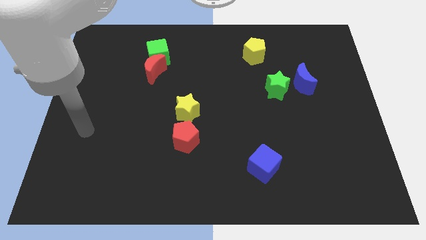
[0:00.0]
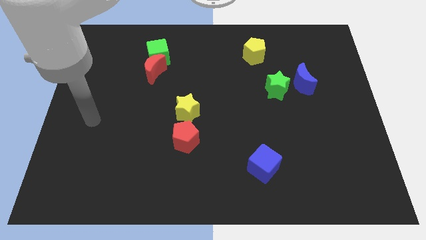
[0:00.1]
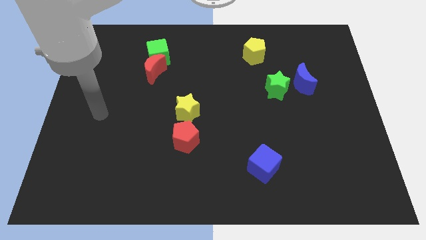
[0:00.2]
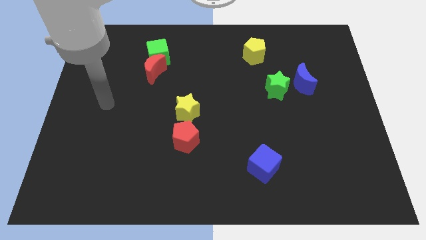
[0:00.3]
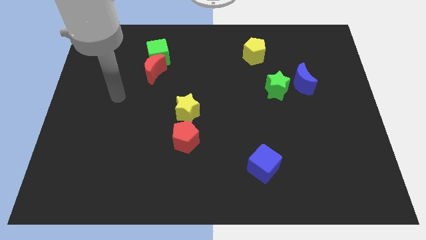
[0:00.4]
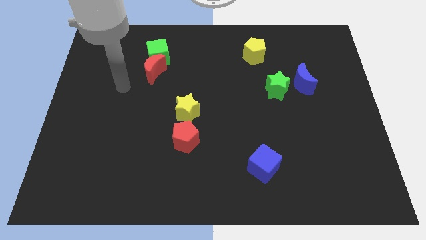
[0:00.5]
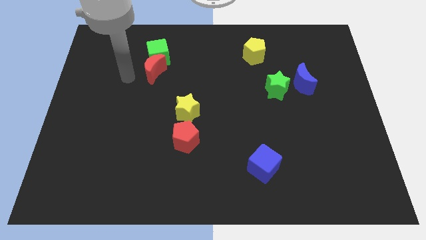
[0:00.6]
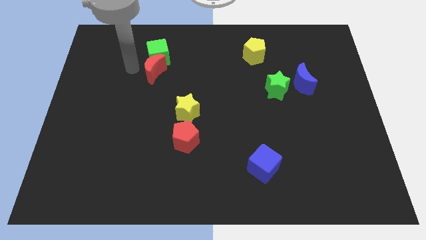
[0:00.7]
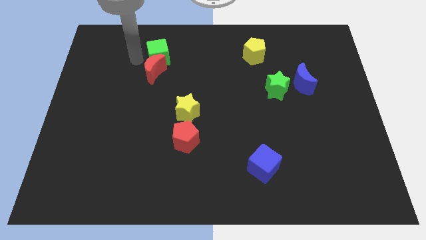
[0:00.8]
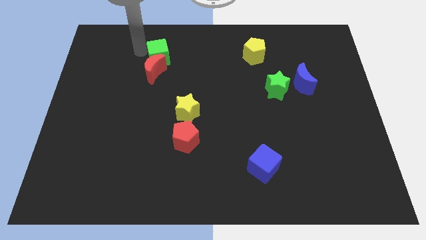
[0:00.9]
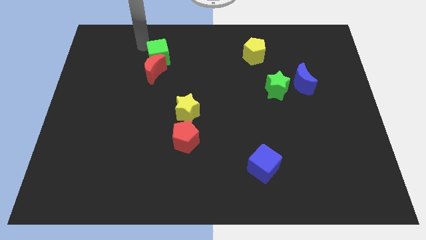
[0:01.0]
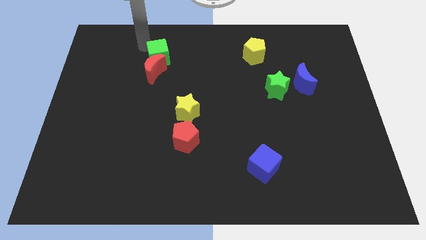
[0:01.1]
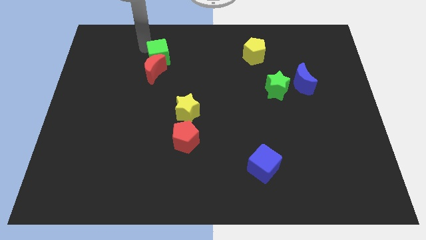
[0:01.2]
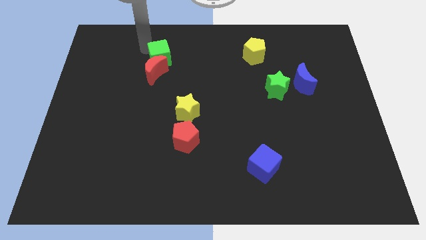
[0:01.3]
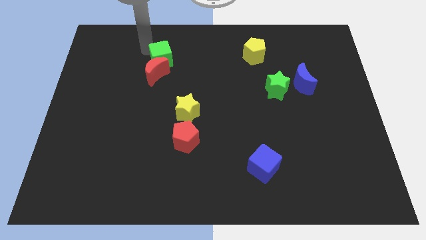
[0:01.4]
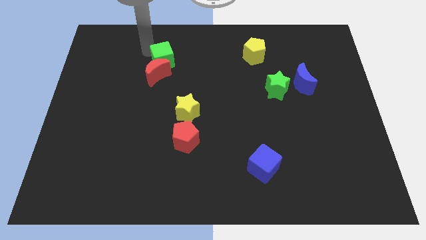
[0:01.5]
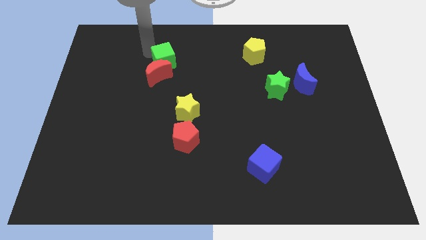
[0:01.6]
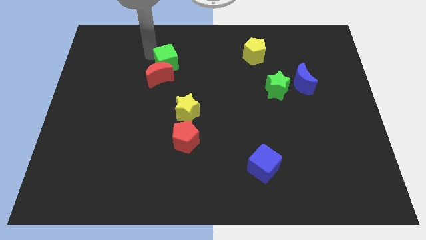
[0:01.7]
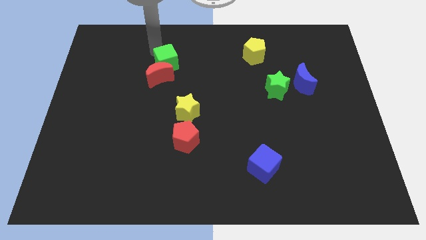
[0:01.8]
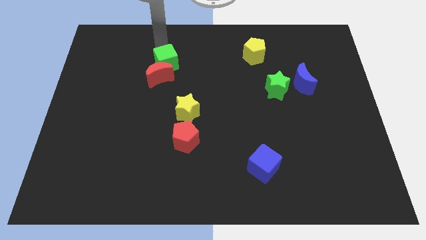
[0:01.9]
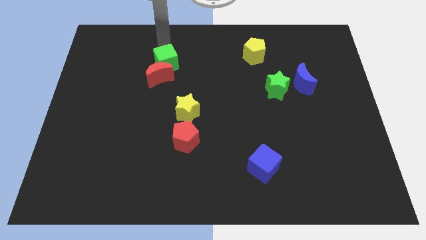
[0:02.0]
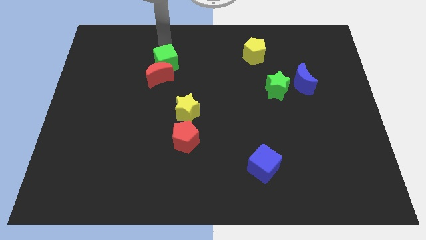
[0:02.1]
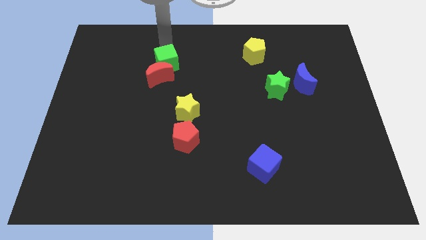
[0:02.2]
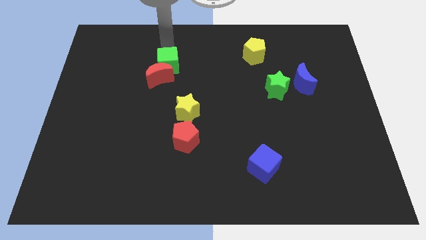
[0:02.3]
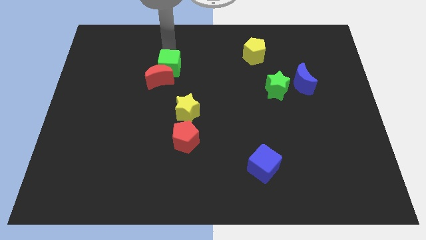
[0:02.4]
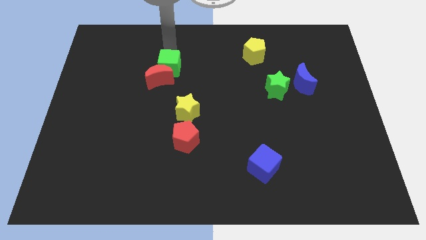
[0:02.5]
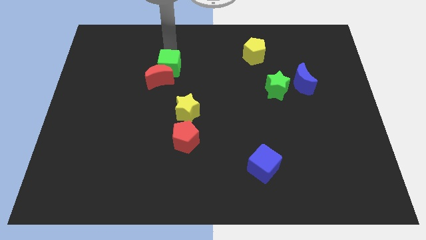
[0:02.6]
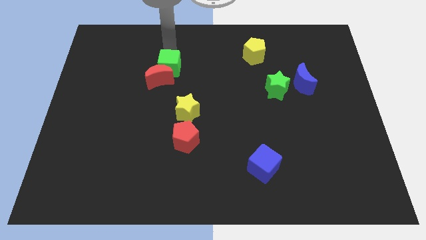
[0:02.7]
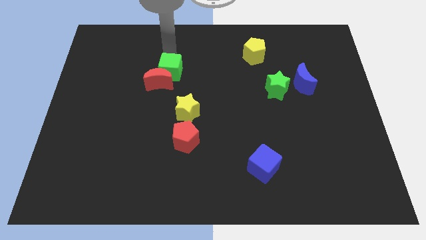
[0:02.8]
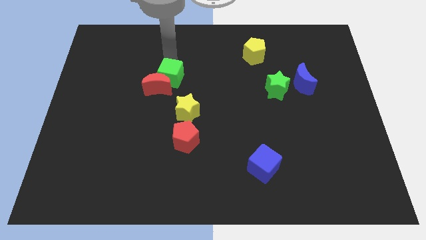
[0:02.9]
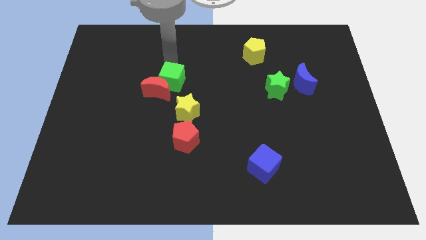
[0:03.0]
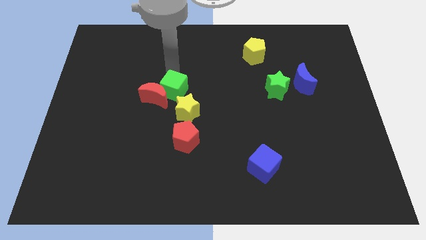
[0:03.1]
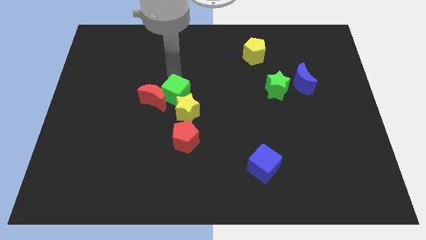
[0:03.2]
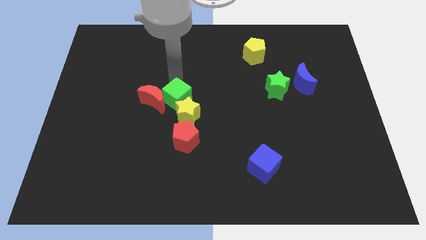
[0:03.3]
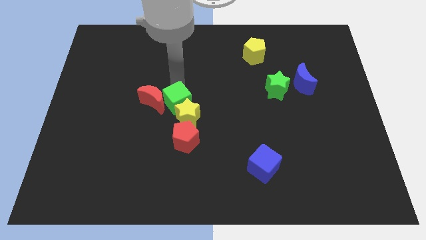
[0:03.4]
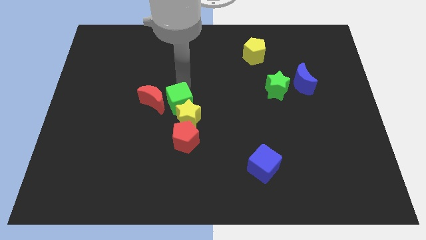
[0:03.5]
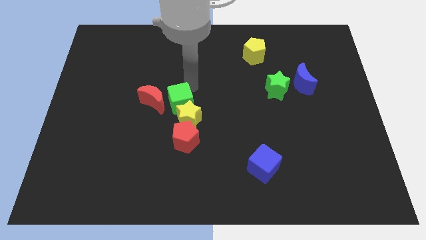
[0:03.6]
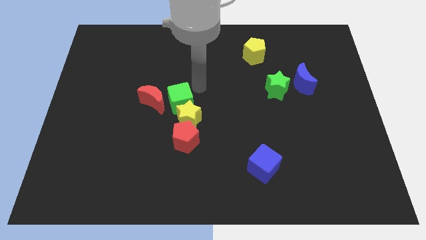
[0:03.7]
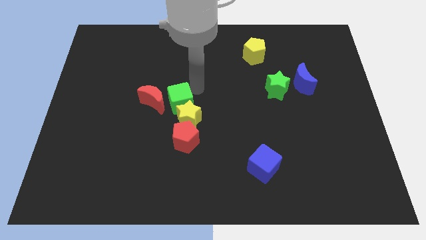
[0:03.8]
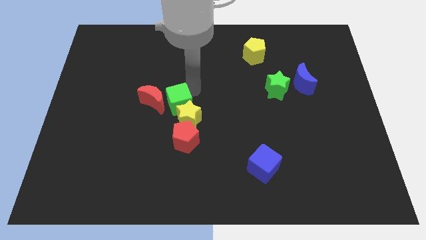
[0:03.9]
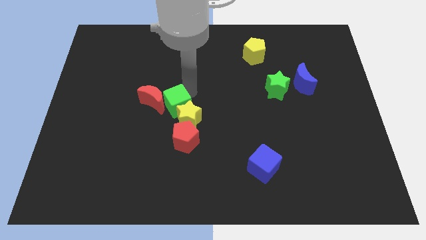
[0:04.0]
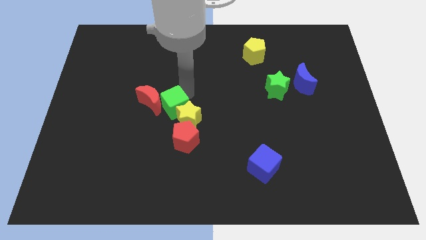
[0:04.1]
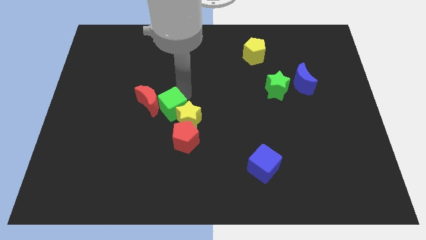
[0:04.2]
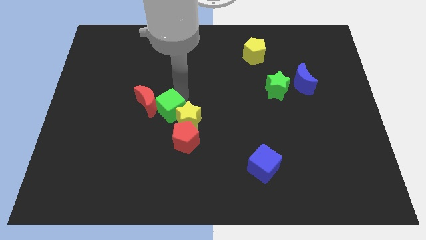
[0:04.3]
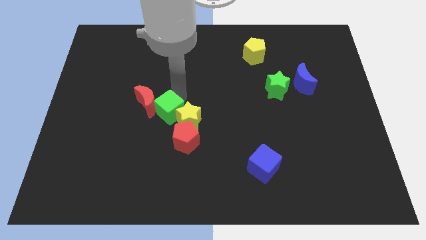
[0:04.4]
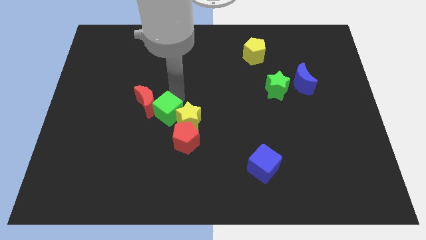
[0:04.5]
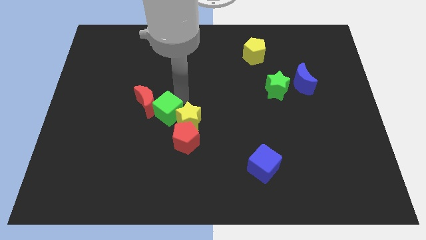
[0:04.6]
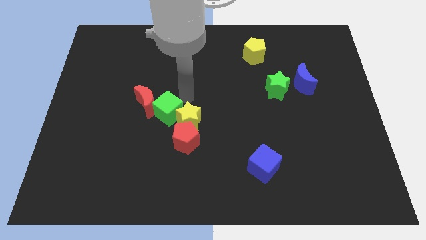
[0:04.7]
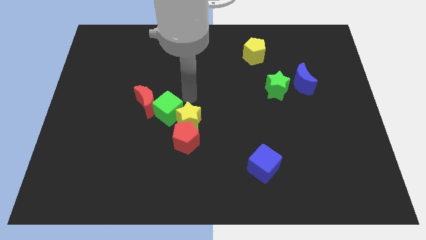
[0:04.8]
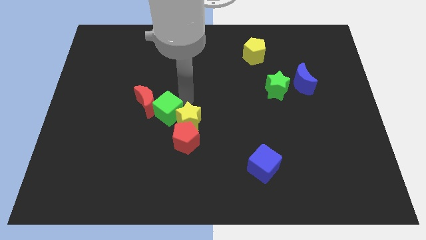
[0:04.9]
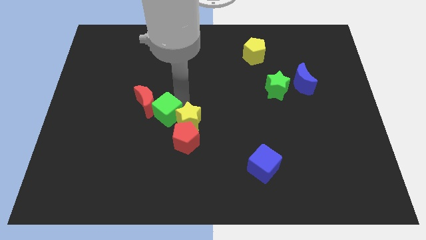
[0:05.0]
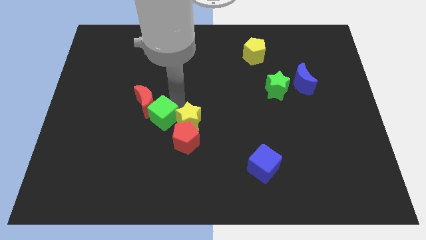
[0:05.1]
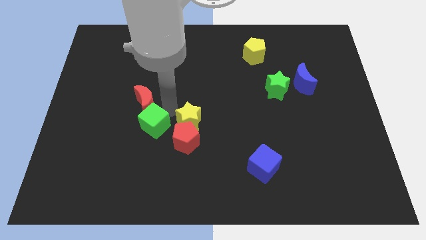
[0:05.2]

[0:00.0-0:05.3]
move the green cube down

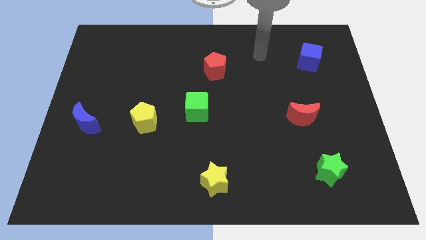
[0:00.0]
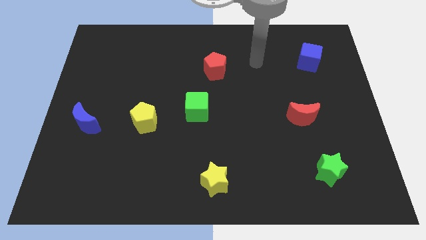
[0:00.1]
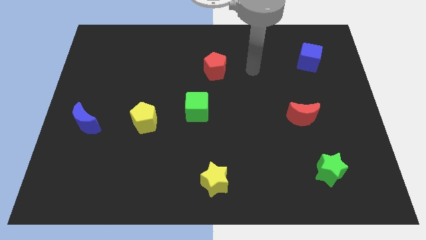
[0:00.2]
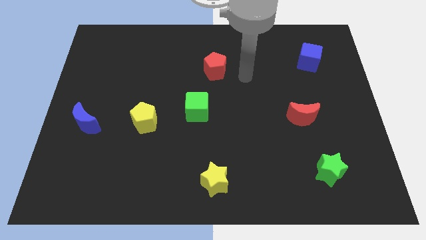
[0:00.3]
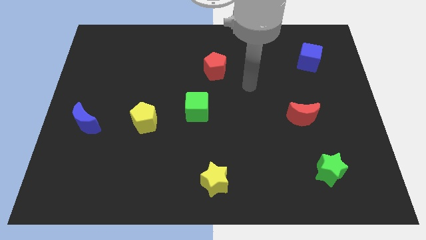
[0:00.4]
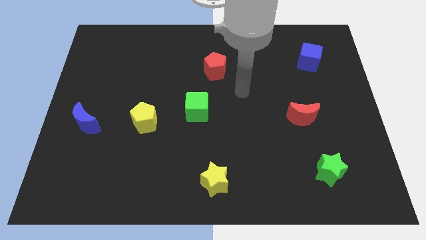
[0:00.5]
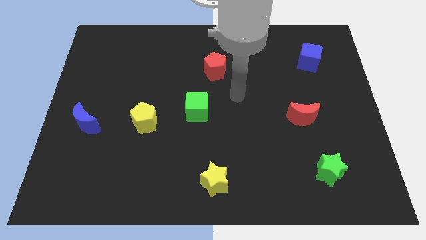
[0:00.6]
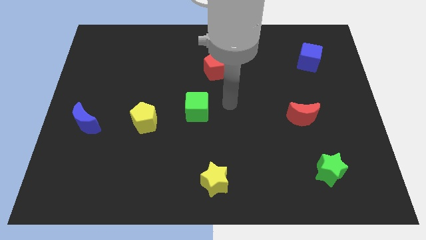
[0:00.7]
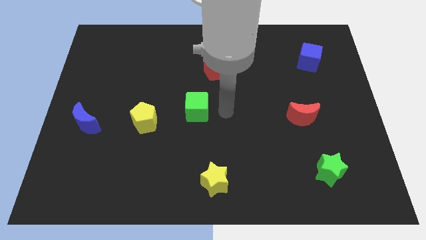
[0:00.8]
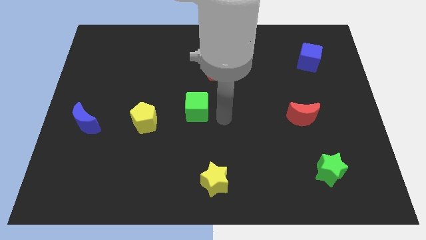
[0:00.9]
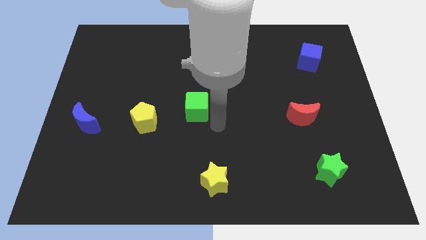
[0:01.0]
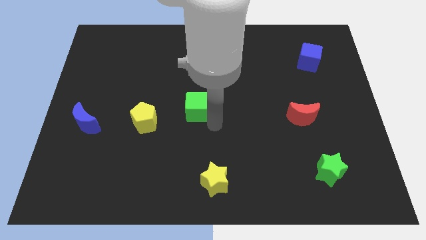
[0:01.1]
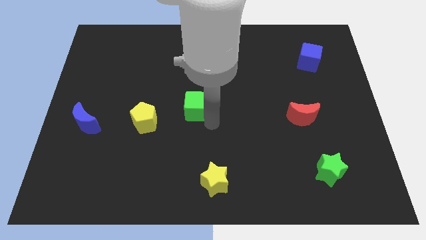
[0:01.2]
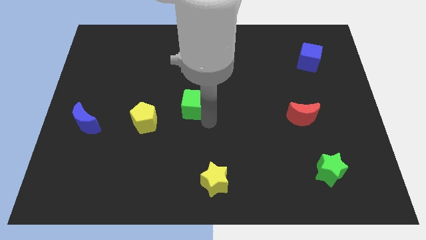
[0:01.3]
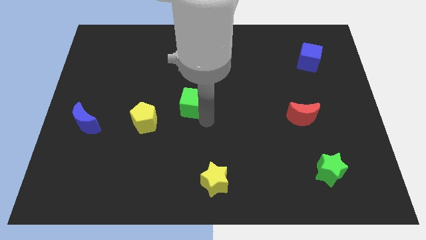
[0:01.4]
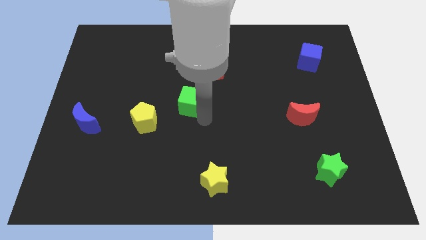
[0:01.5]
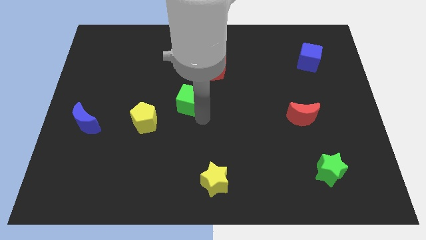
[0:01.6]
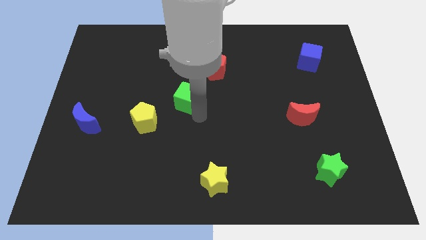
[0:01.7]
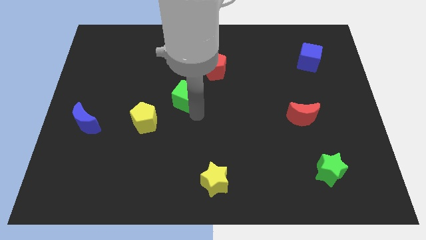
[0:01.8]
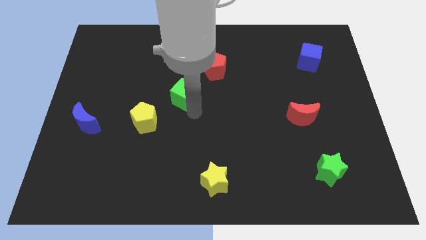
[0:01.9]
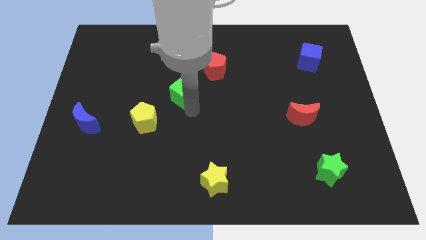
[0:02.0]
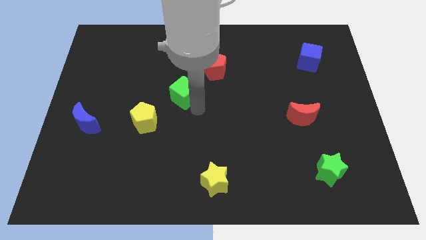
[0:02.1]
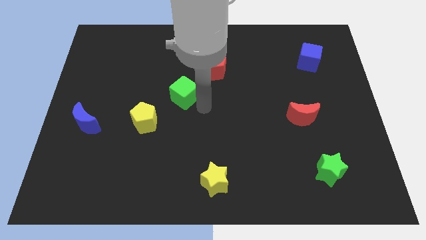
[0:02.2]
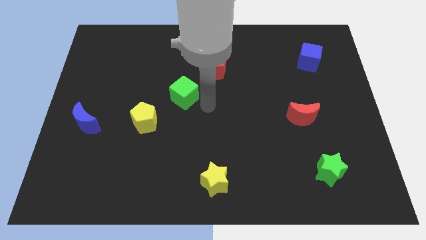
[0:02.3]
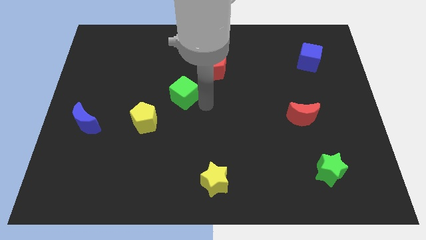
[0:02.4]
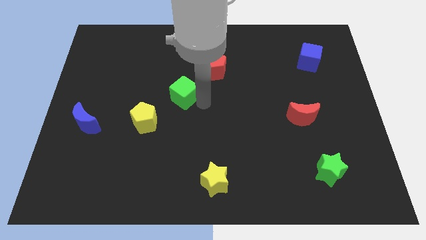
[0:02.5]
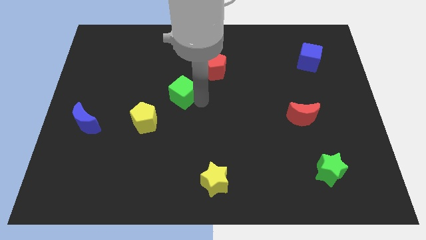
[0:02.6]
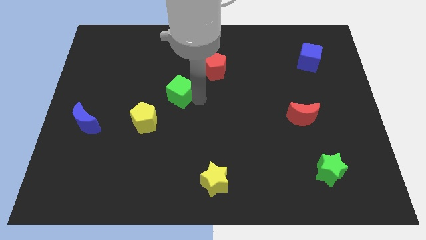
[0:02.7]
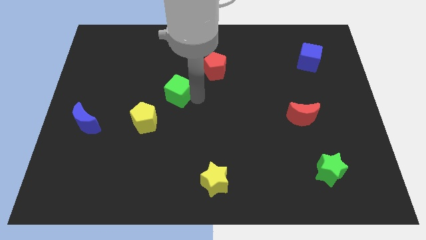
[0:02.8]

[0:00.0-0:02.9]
push the green cube a little up and left diagonally
